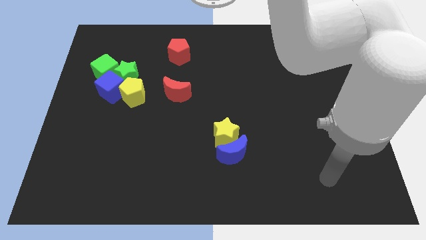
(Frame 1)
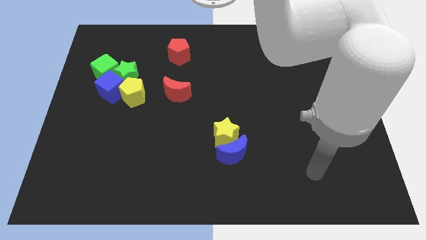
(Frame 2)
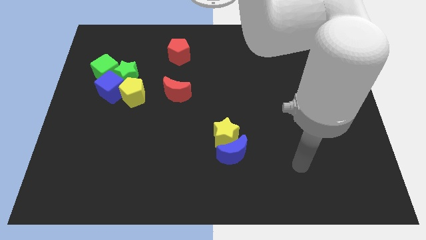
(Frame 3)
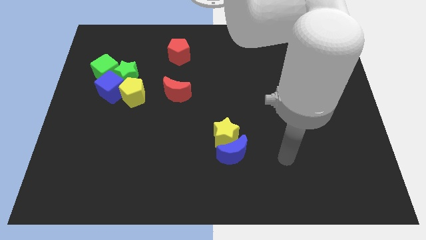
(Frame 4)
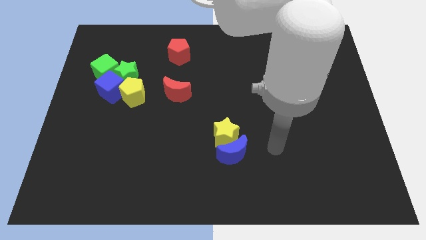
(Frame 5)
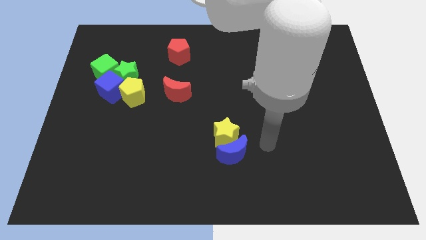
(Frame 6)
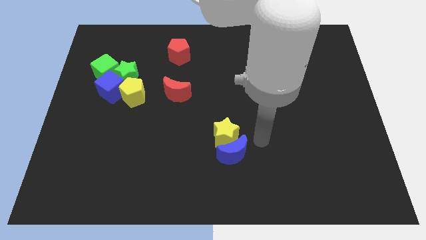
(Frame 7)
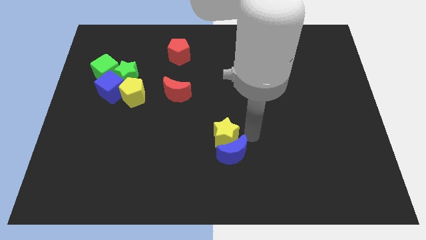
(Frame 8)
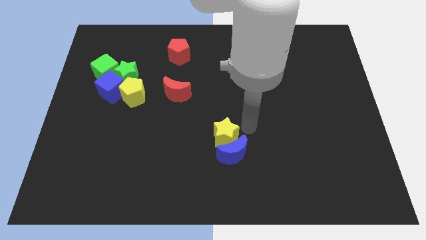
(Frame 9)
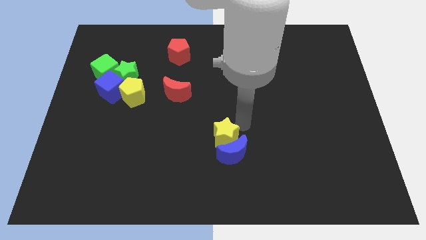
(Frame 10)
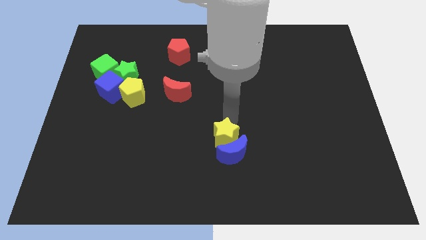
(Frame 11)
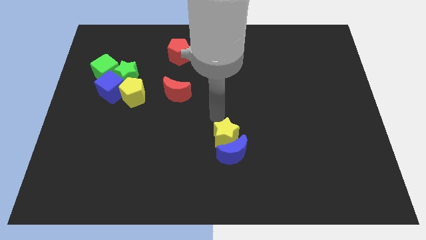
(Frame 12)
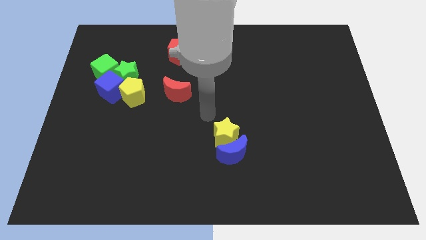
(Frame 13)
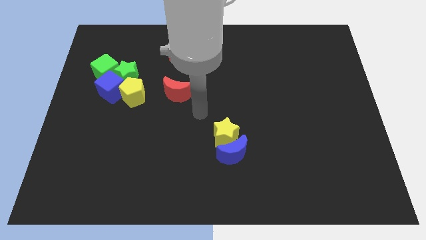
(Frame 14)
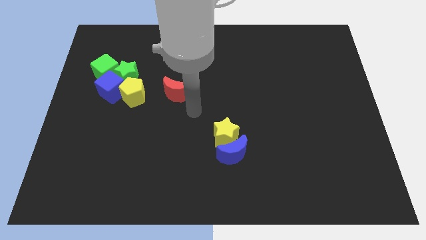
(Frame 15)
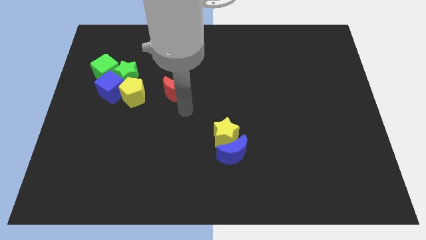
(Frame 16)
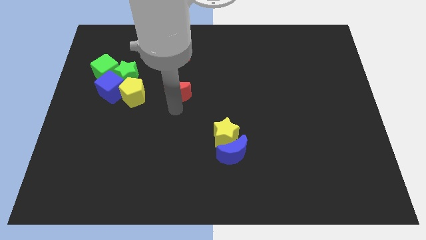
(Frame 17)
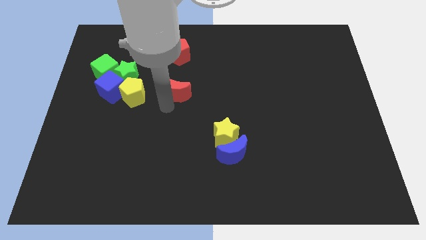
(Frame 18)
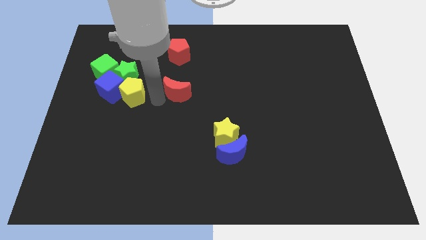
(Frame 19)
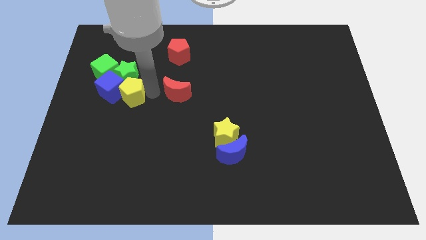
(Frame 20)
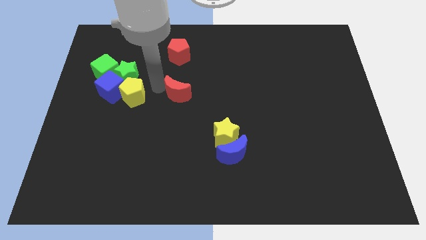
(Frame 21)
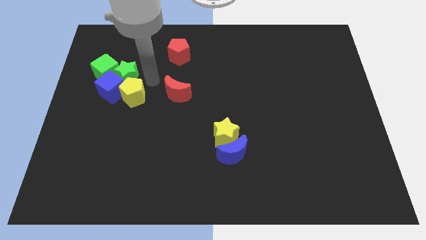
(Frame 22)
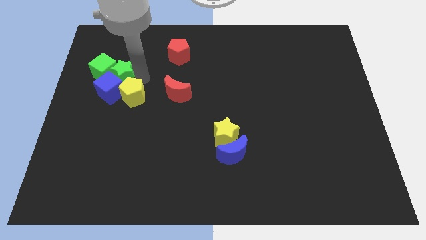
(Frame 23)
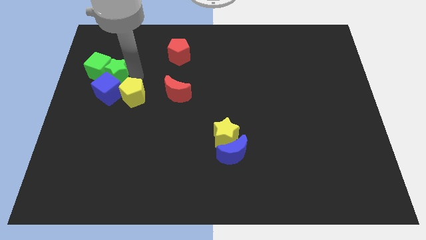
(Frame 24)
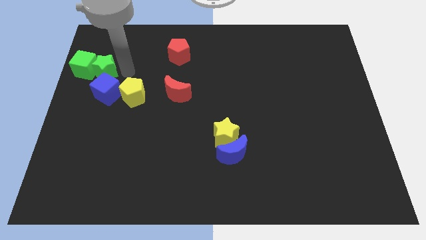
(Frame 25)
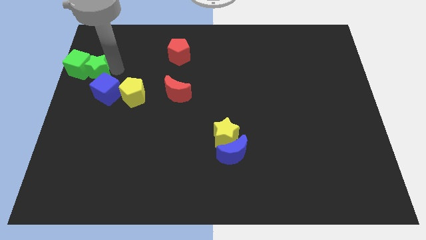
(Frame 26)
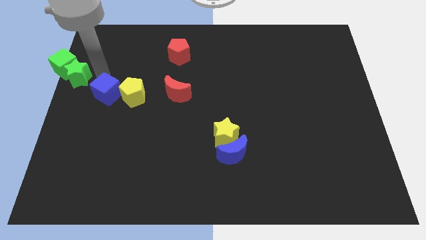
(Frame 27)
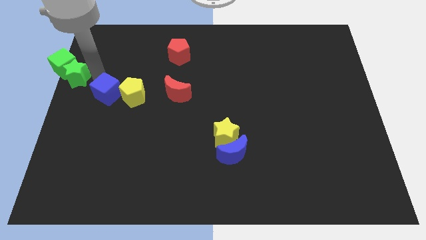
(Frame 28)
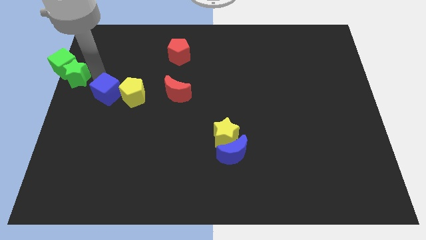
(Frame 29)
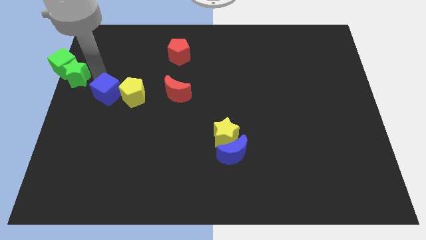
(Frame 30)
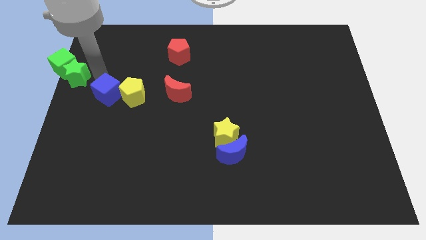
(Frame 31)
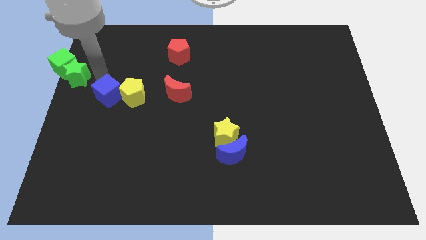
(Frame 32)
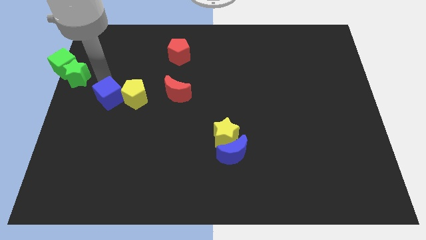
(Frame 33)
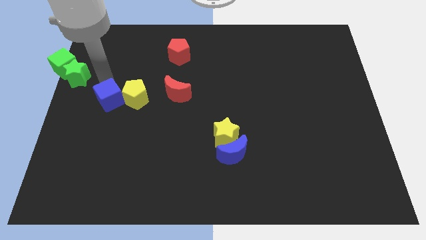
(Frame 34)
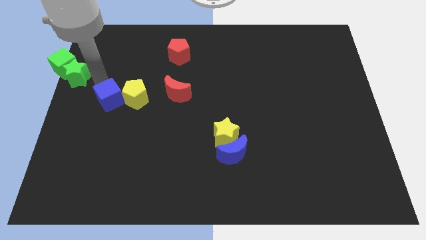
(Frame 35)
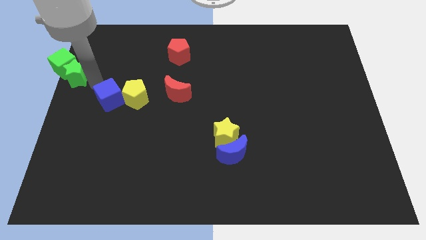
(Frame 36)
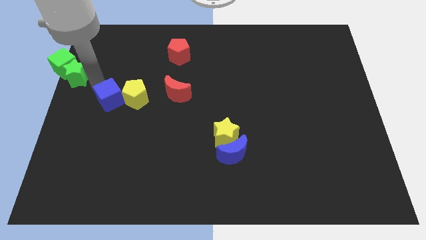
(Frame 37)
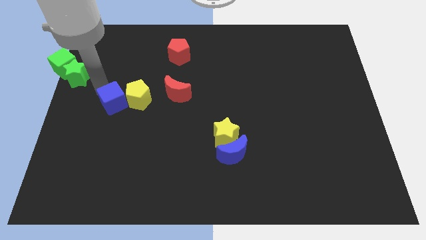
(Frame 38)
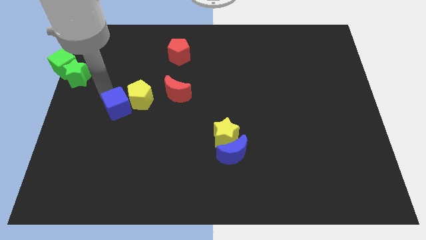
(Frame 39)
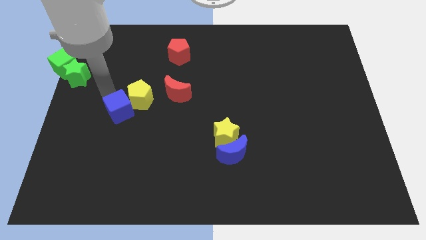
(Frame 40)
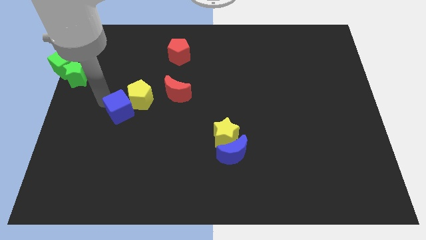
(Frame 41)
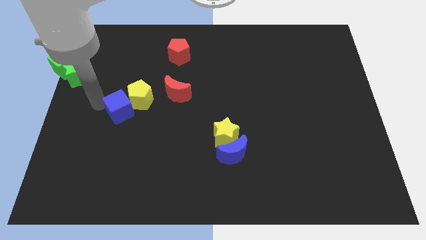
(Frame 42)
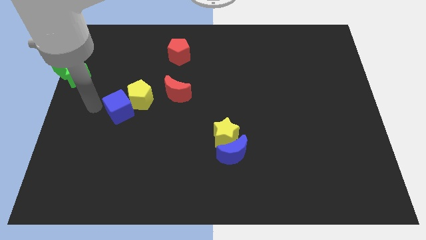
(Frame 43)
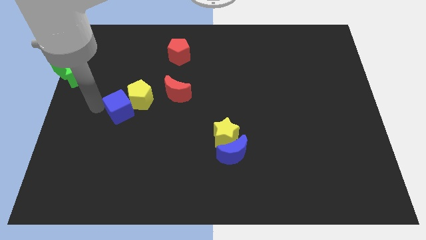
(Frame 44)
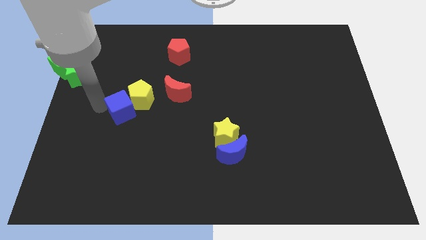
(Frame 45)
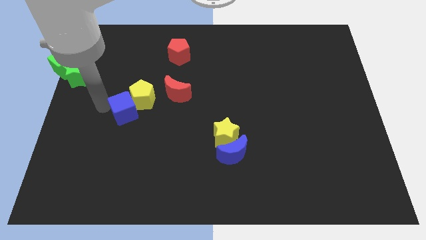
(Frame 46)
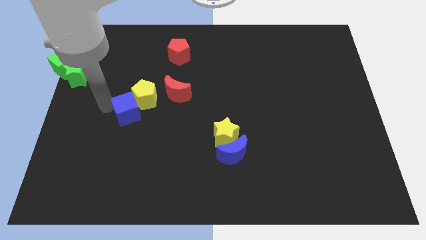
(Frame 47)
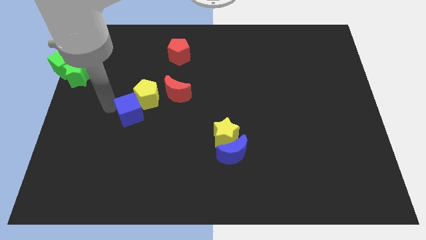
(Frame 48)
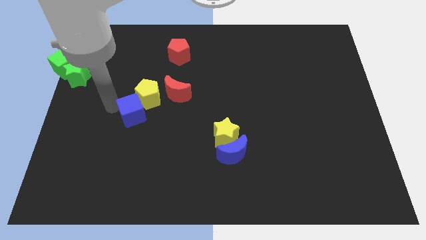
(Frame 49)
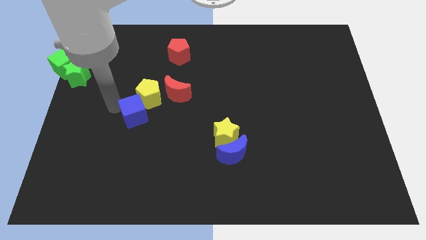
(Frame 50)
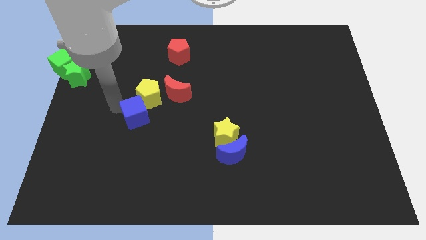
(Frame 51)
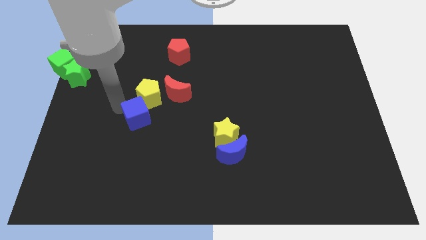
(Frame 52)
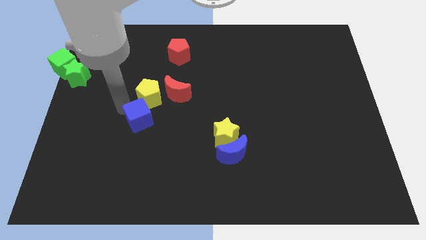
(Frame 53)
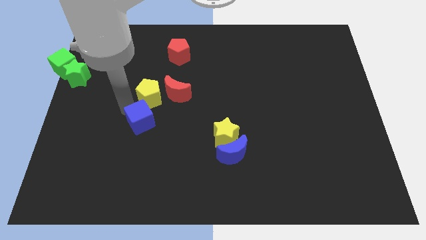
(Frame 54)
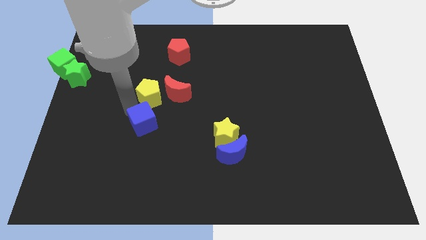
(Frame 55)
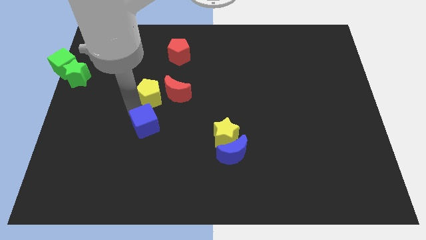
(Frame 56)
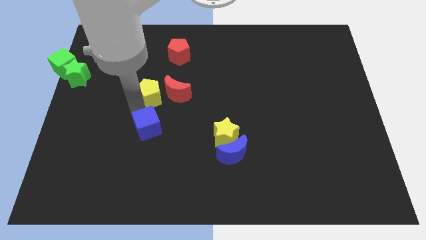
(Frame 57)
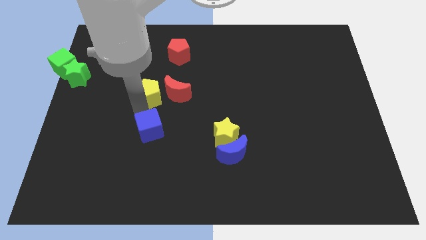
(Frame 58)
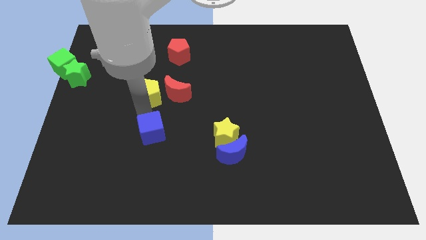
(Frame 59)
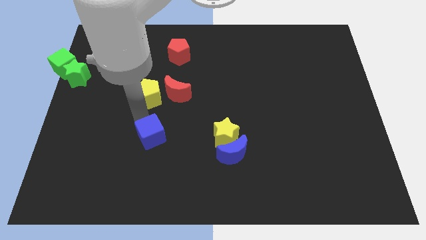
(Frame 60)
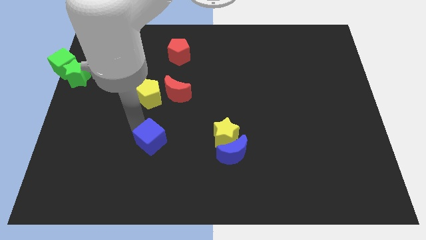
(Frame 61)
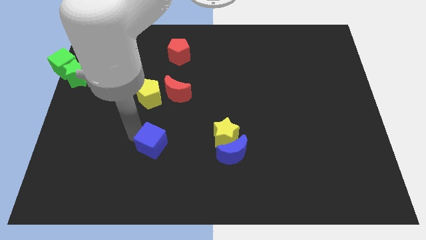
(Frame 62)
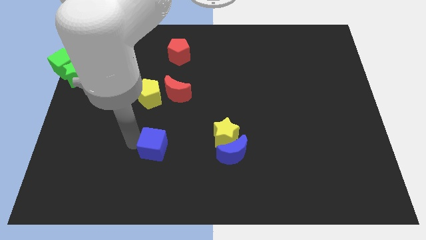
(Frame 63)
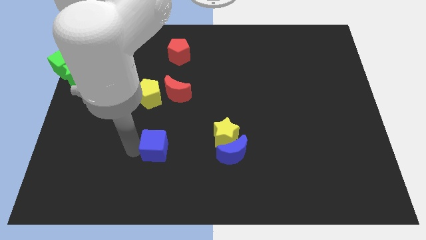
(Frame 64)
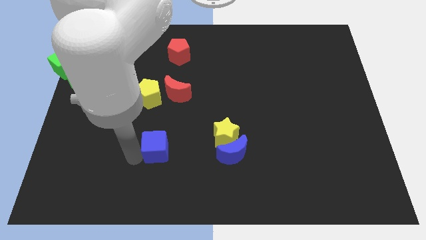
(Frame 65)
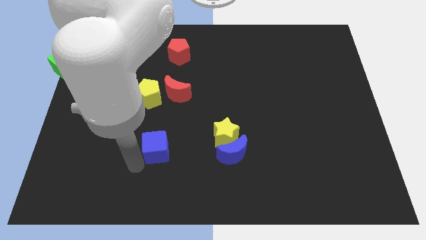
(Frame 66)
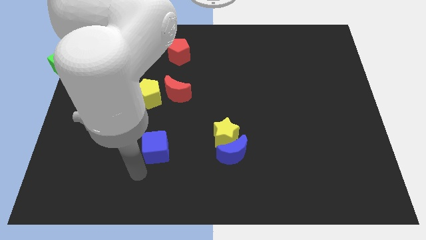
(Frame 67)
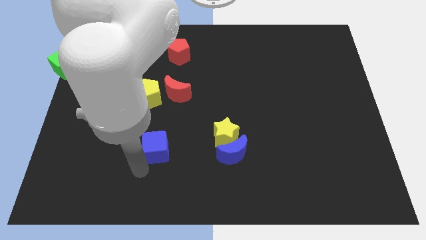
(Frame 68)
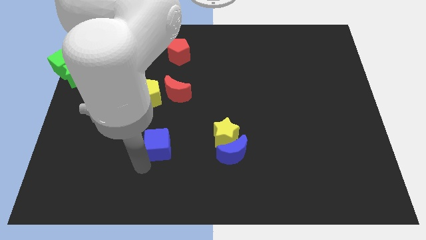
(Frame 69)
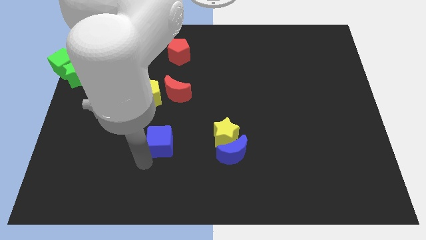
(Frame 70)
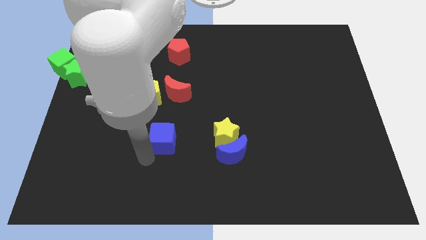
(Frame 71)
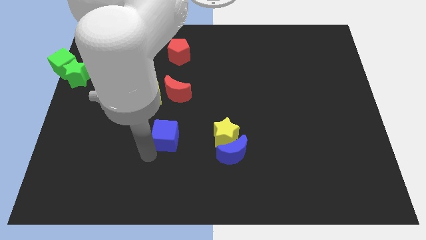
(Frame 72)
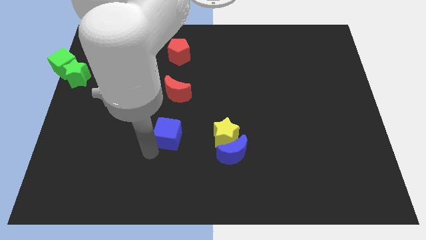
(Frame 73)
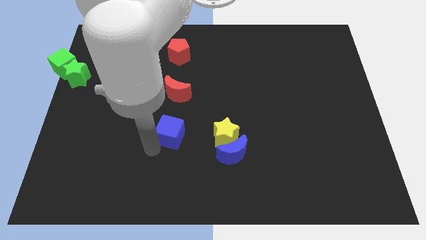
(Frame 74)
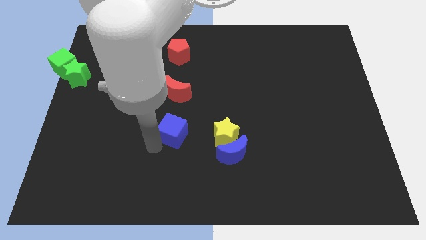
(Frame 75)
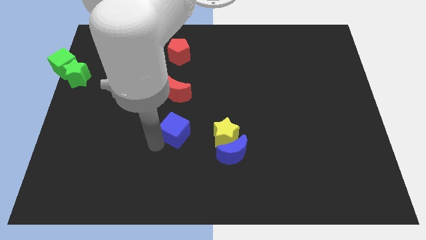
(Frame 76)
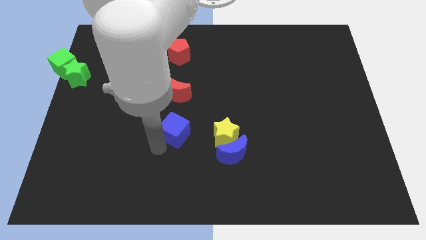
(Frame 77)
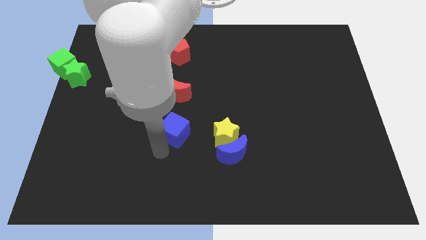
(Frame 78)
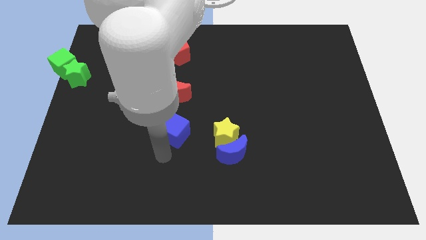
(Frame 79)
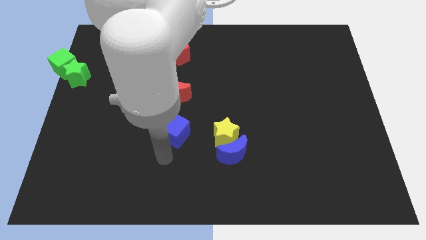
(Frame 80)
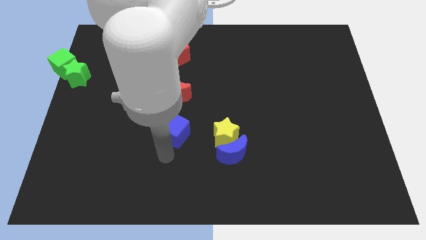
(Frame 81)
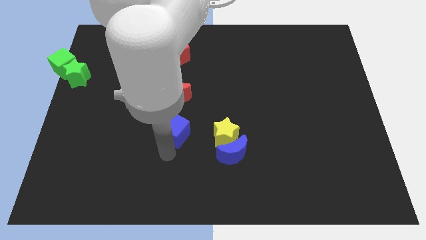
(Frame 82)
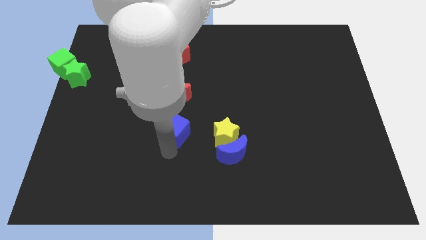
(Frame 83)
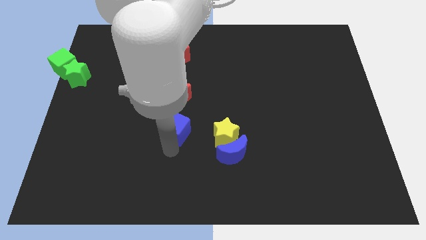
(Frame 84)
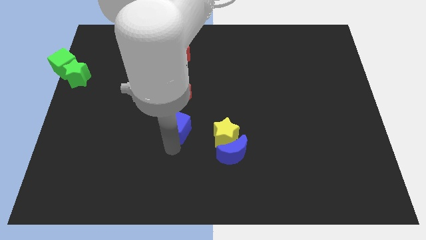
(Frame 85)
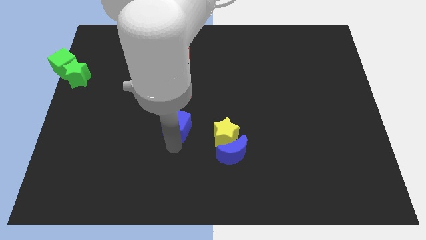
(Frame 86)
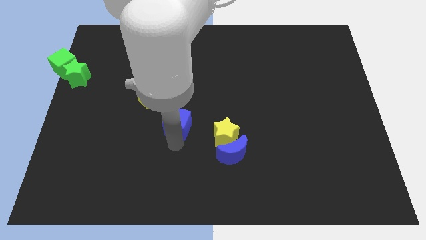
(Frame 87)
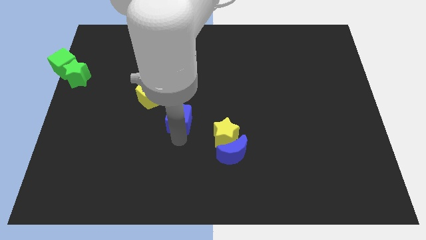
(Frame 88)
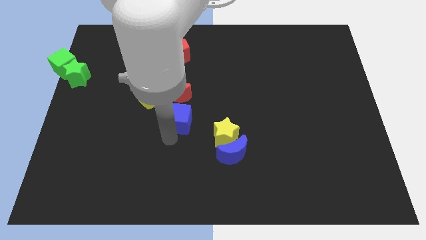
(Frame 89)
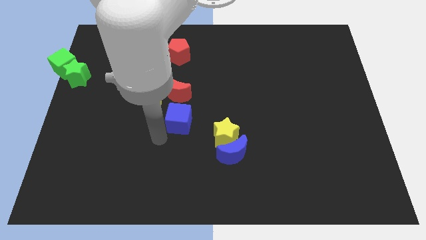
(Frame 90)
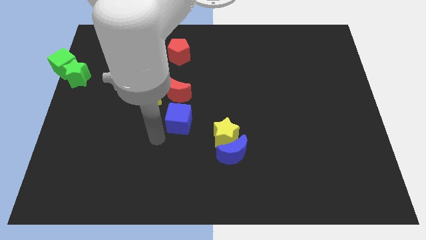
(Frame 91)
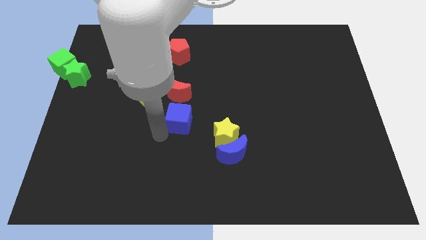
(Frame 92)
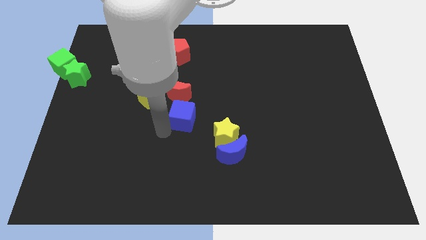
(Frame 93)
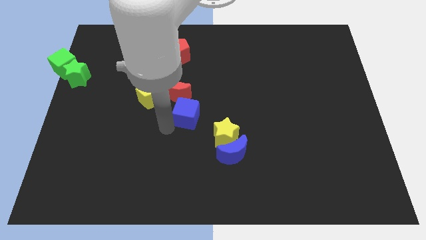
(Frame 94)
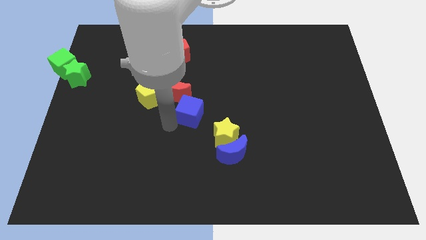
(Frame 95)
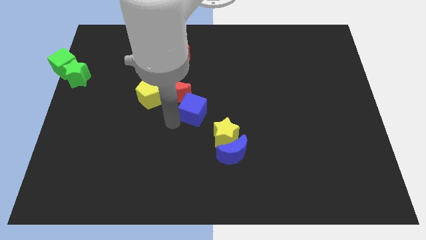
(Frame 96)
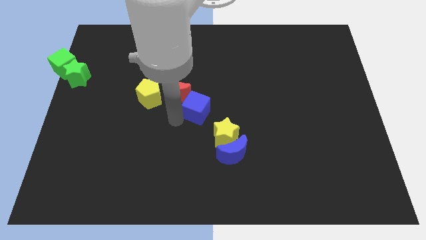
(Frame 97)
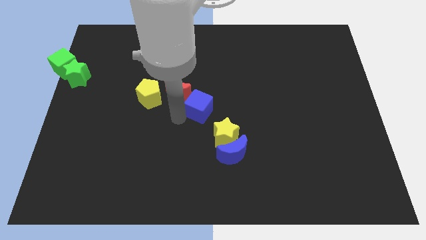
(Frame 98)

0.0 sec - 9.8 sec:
move the blue cube right of the red moon
